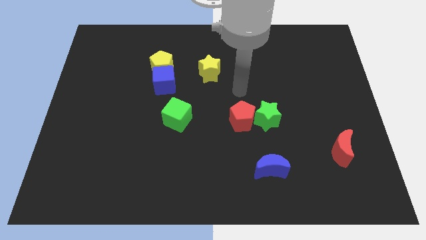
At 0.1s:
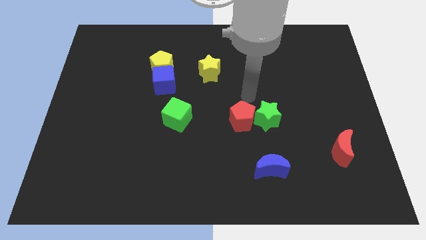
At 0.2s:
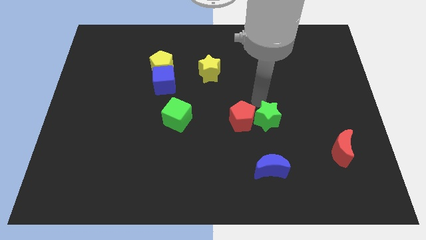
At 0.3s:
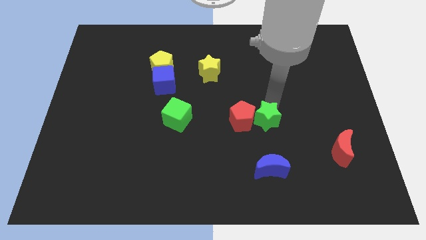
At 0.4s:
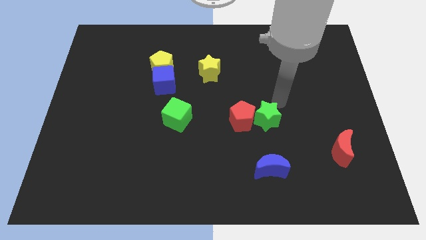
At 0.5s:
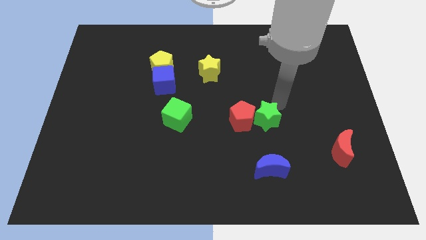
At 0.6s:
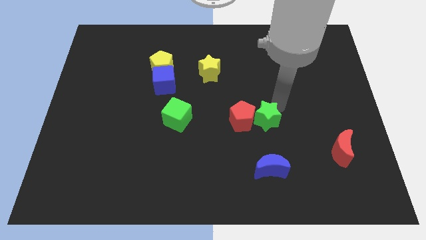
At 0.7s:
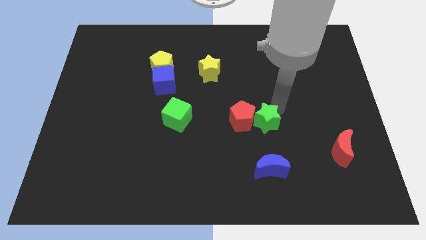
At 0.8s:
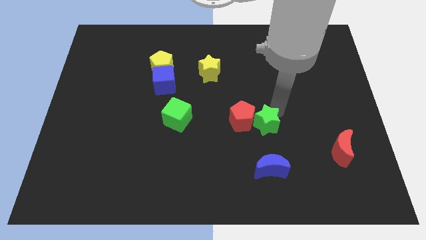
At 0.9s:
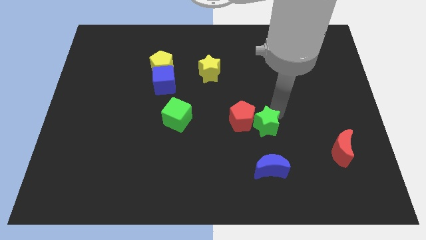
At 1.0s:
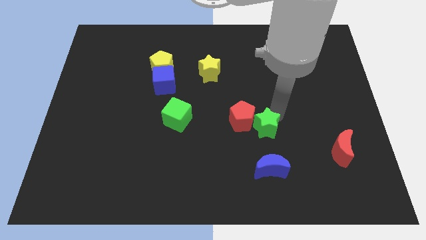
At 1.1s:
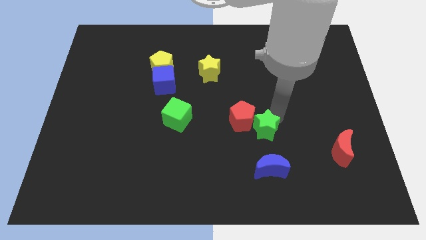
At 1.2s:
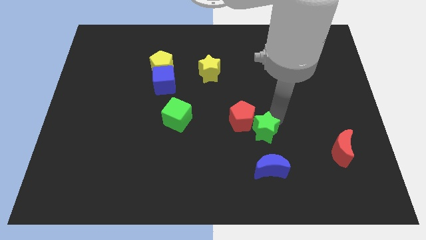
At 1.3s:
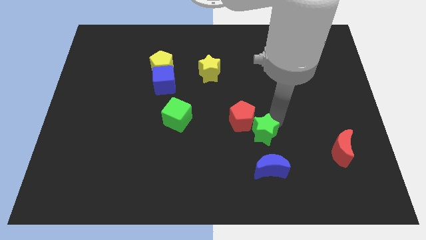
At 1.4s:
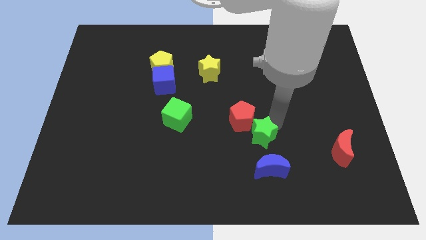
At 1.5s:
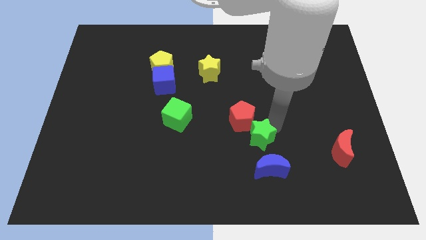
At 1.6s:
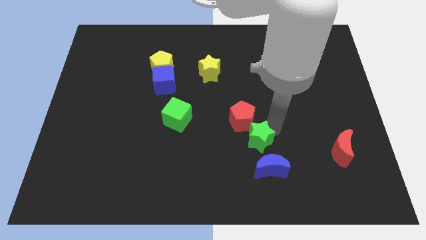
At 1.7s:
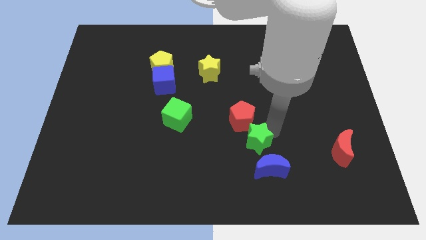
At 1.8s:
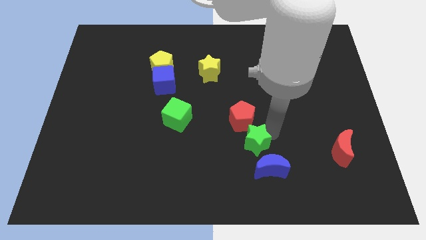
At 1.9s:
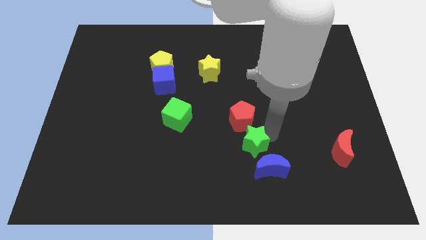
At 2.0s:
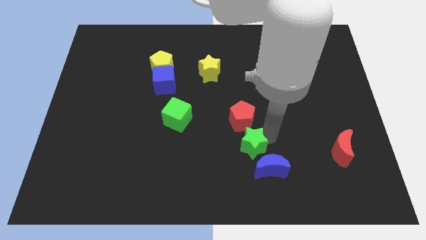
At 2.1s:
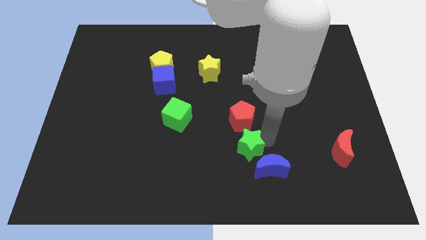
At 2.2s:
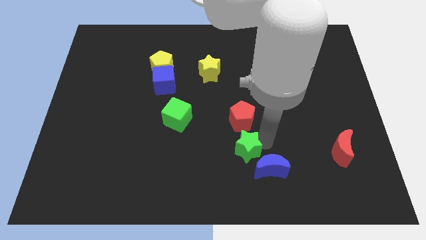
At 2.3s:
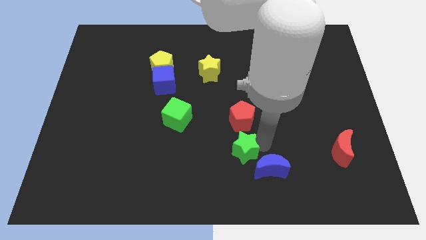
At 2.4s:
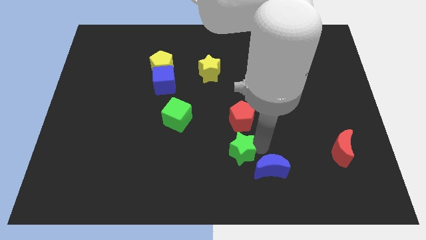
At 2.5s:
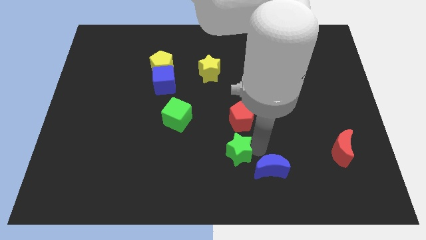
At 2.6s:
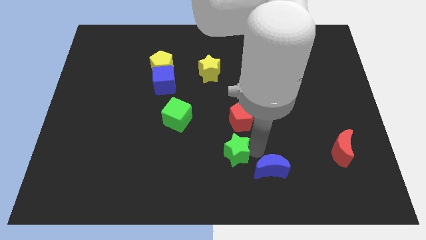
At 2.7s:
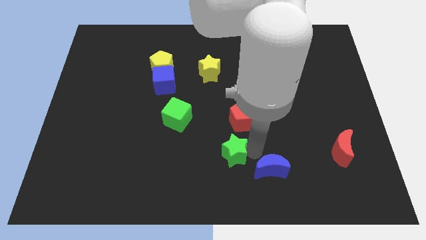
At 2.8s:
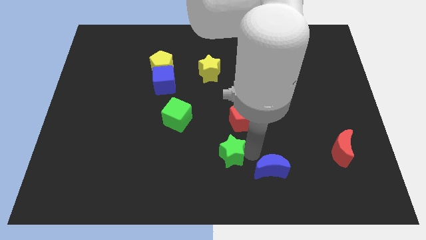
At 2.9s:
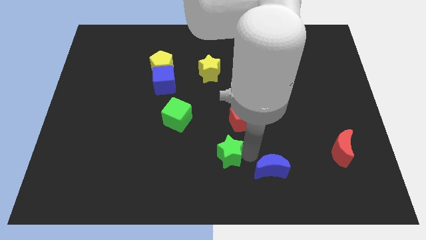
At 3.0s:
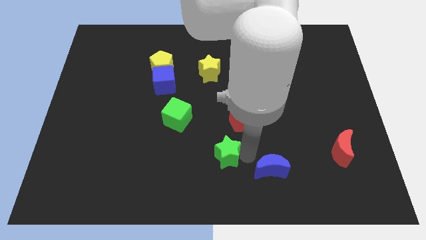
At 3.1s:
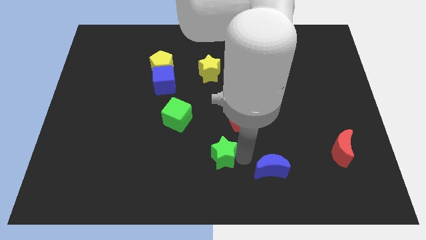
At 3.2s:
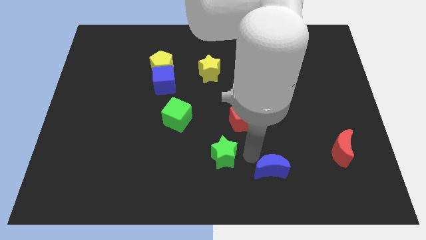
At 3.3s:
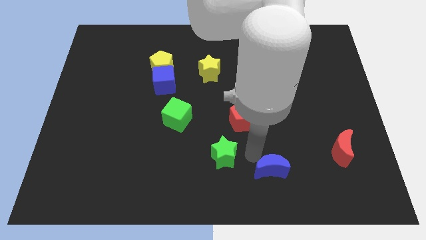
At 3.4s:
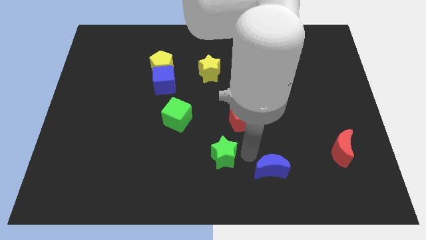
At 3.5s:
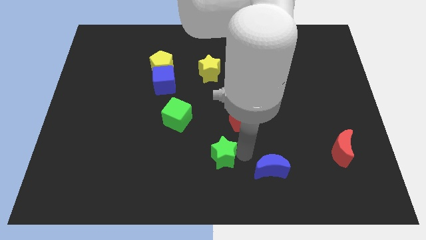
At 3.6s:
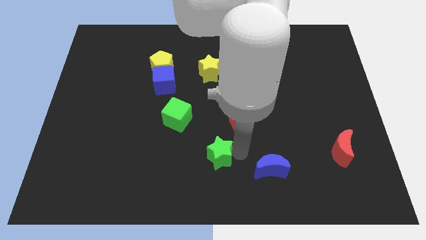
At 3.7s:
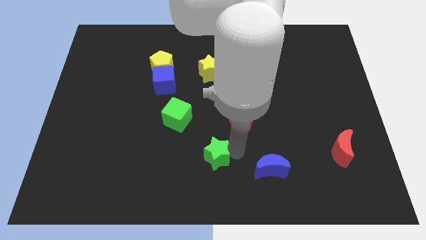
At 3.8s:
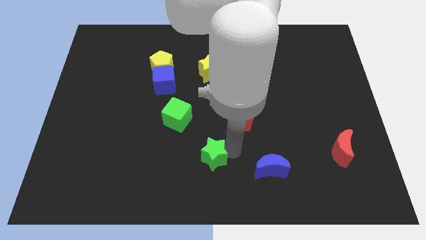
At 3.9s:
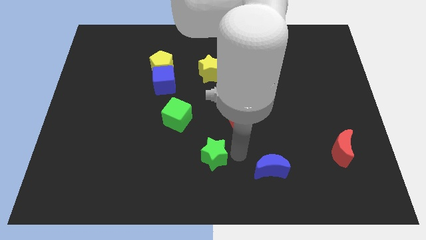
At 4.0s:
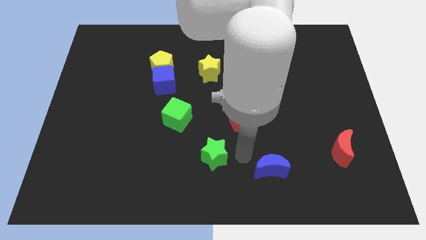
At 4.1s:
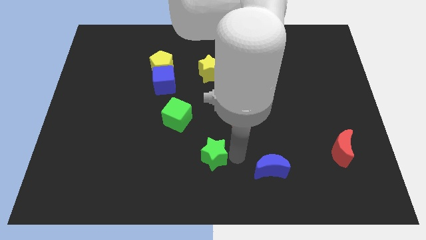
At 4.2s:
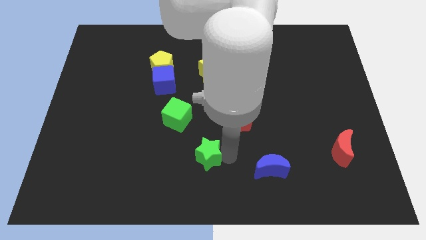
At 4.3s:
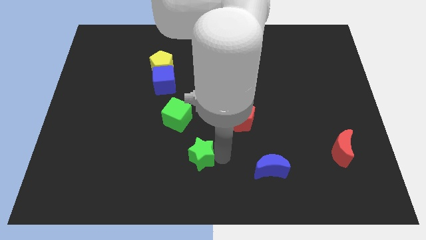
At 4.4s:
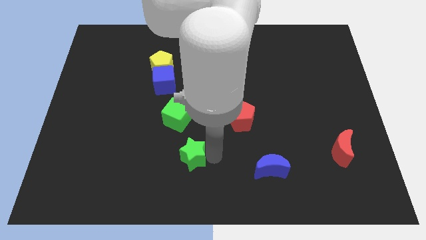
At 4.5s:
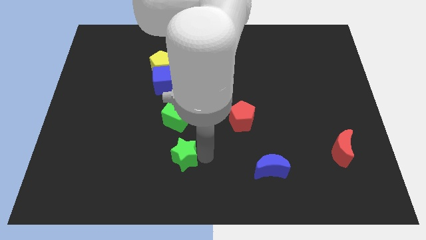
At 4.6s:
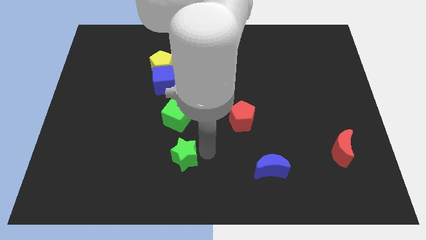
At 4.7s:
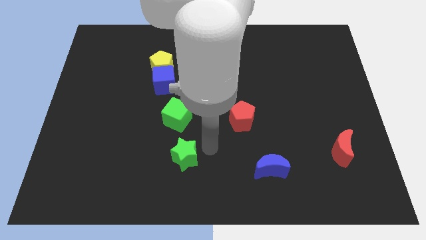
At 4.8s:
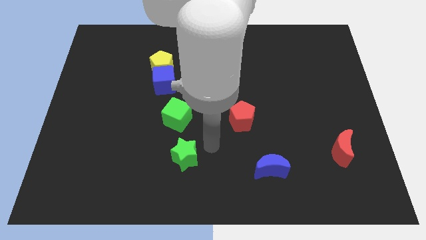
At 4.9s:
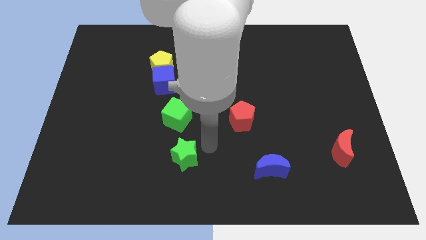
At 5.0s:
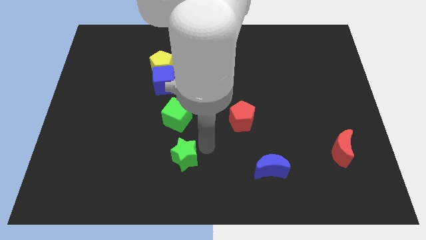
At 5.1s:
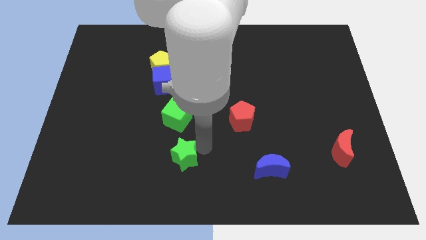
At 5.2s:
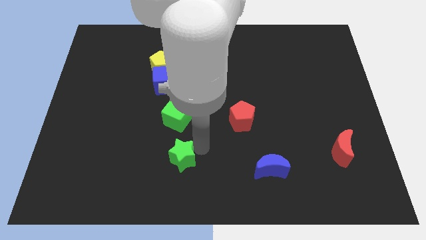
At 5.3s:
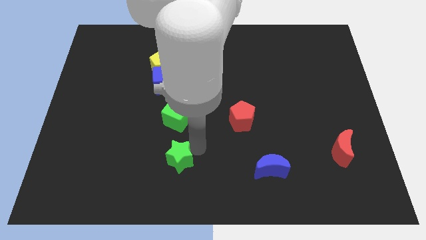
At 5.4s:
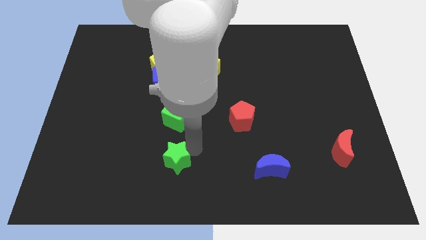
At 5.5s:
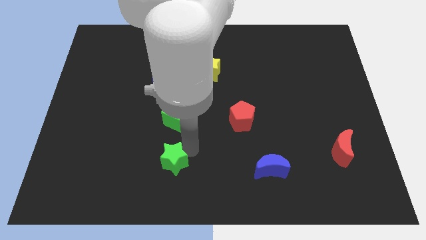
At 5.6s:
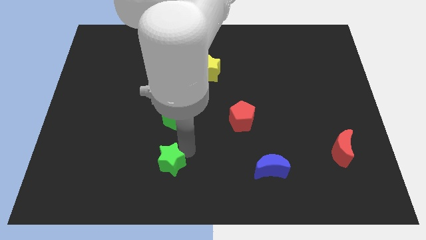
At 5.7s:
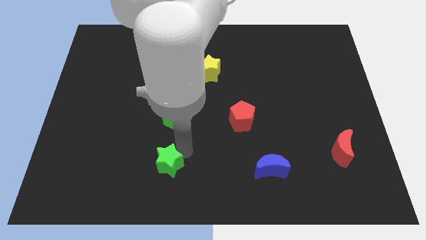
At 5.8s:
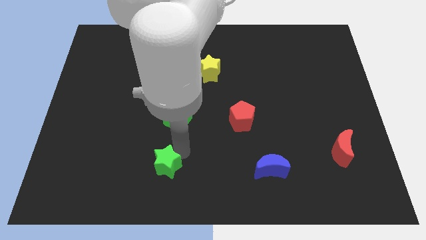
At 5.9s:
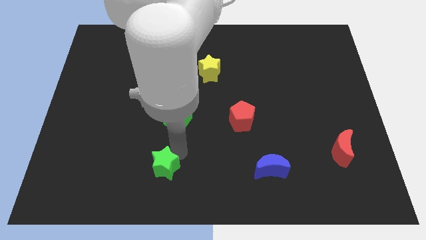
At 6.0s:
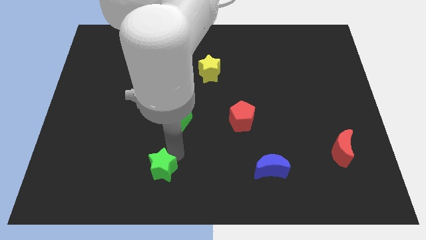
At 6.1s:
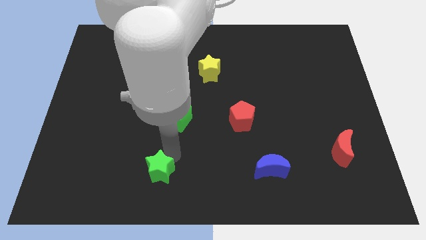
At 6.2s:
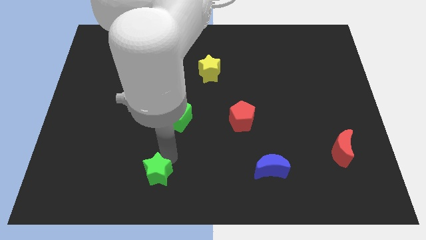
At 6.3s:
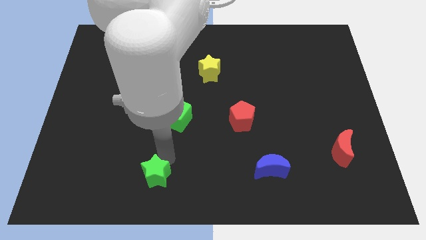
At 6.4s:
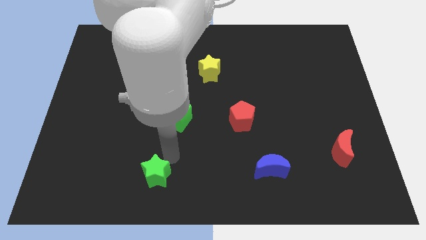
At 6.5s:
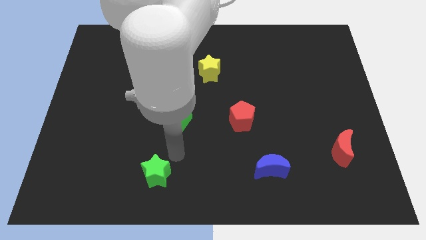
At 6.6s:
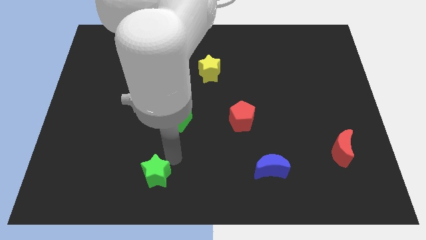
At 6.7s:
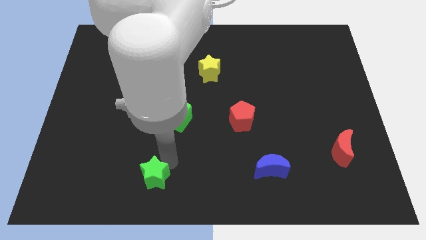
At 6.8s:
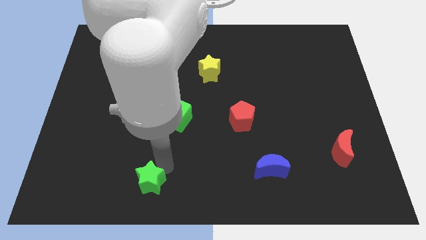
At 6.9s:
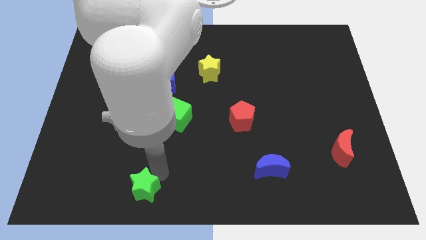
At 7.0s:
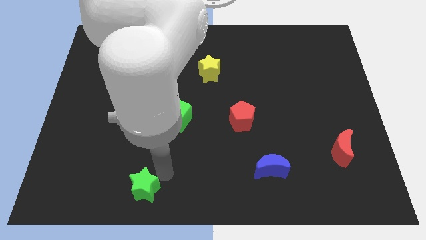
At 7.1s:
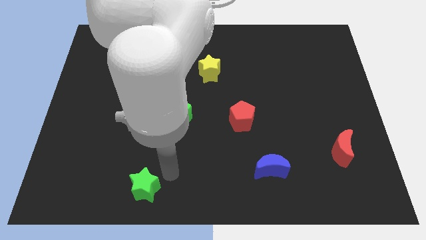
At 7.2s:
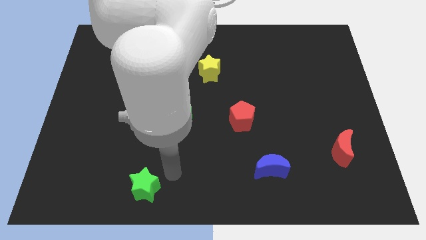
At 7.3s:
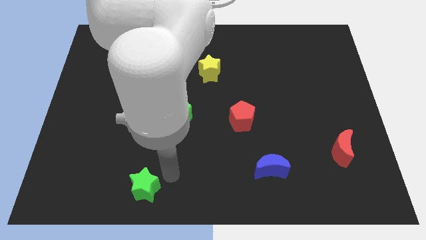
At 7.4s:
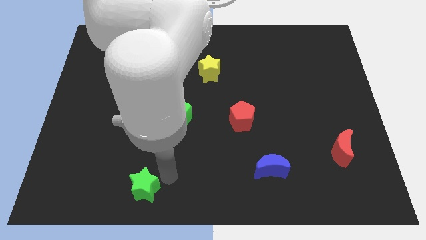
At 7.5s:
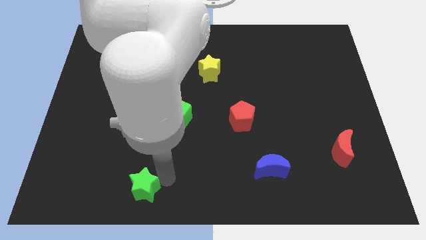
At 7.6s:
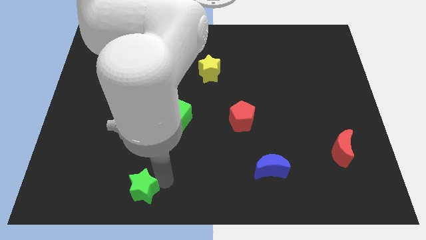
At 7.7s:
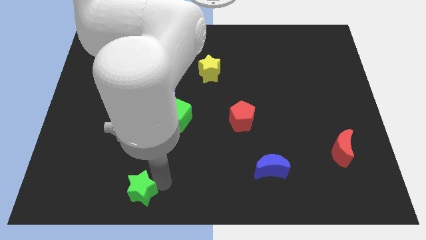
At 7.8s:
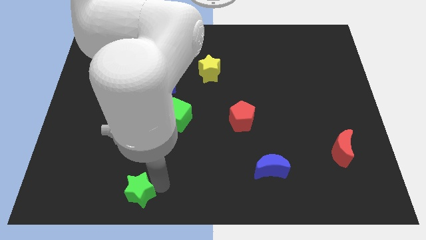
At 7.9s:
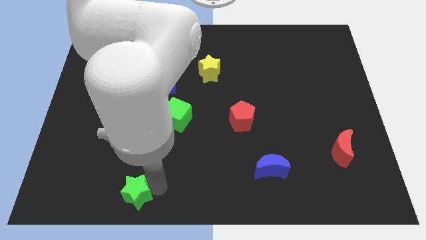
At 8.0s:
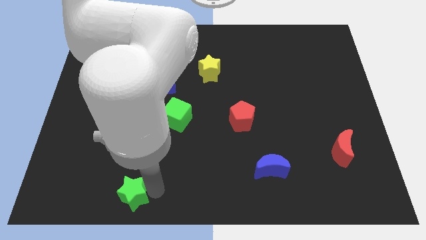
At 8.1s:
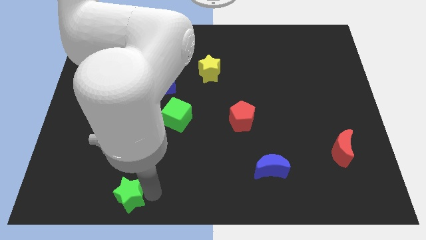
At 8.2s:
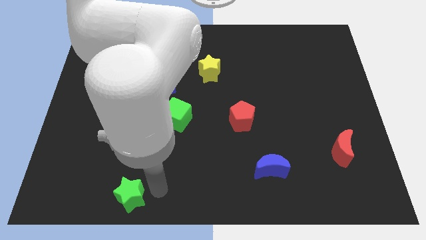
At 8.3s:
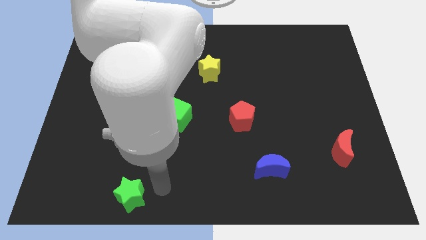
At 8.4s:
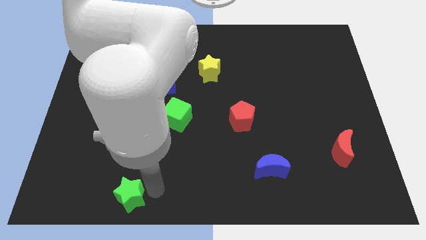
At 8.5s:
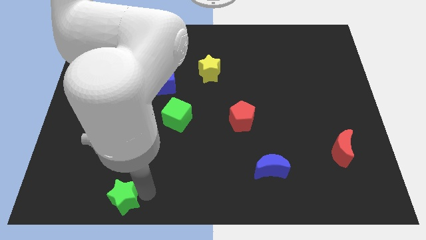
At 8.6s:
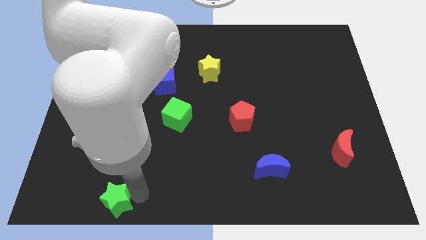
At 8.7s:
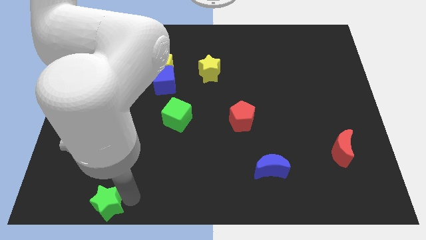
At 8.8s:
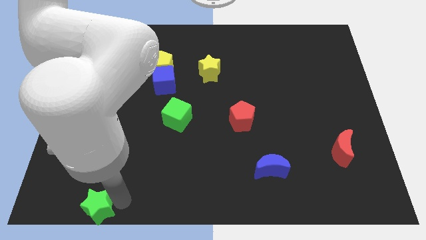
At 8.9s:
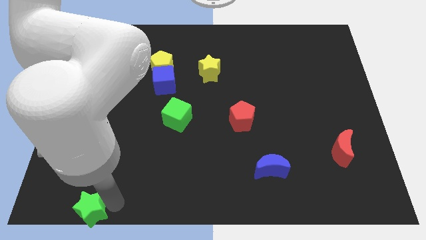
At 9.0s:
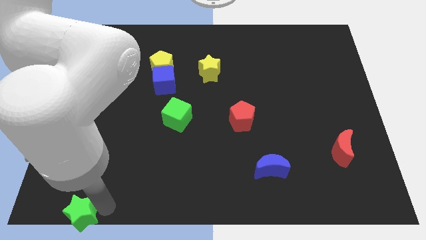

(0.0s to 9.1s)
move the green star to the bottom left of the board
